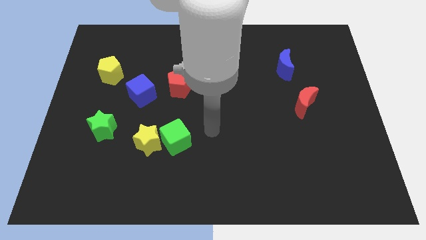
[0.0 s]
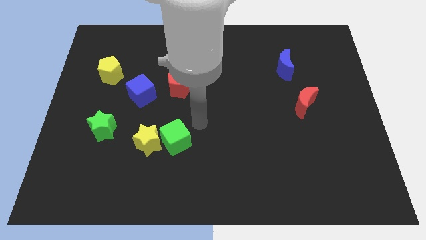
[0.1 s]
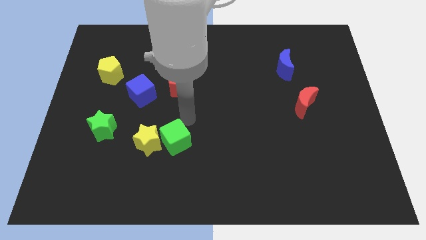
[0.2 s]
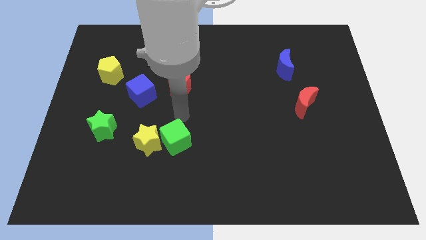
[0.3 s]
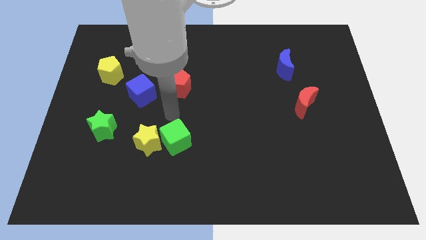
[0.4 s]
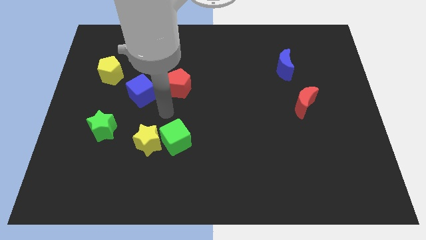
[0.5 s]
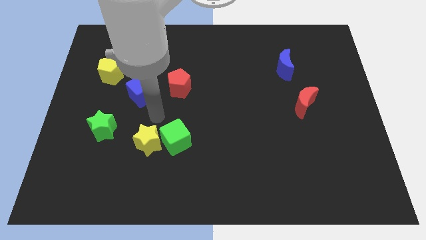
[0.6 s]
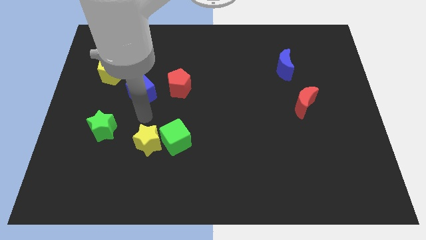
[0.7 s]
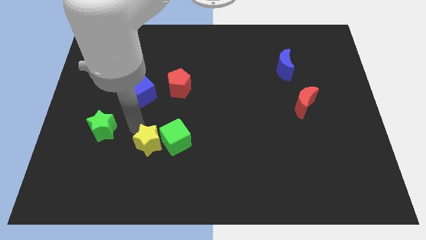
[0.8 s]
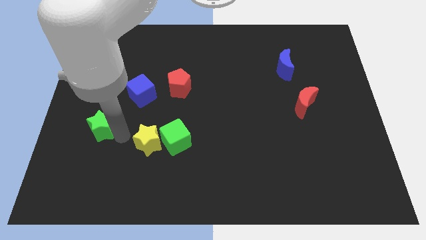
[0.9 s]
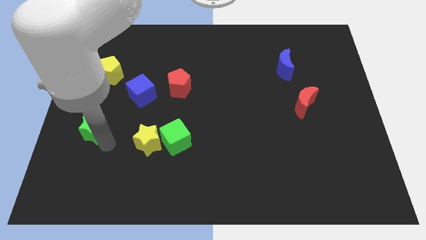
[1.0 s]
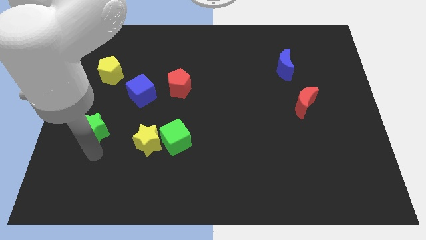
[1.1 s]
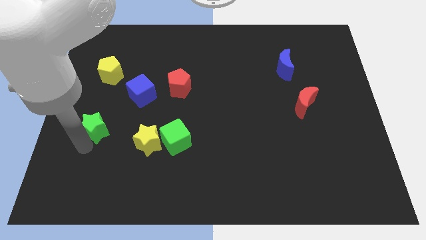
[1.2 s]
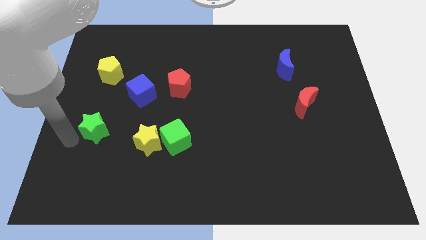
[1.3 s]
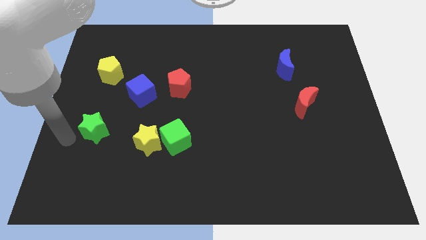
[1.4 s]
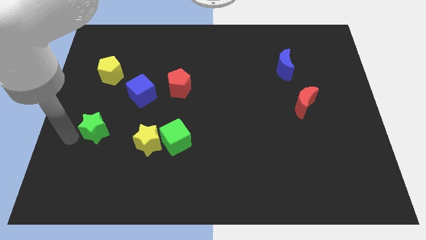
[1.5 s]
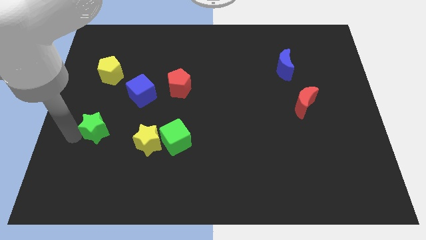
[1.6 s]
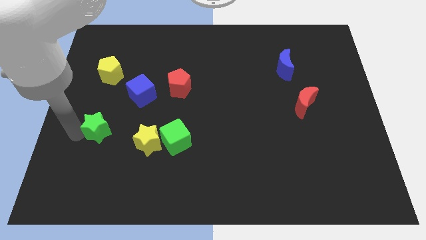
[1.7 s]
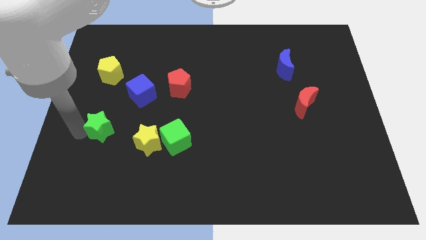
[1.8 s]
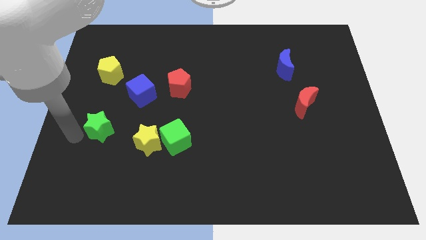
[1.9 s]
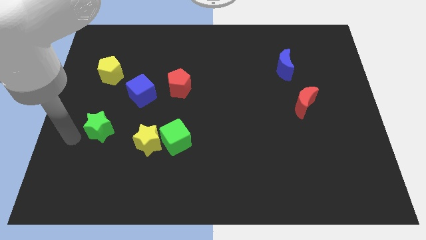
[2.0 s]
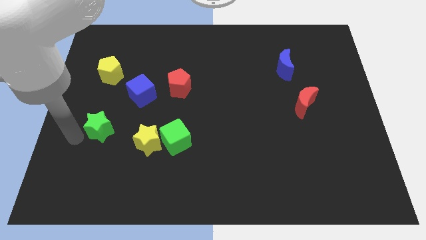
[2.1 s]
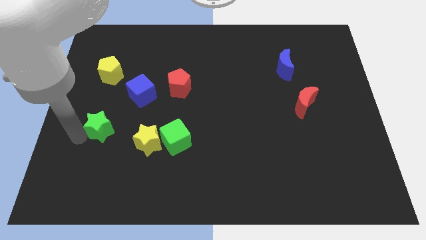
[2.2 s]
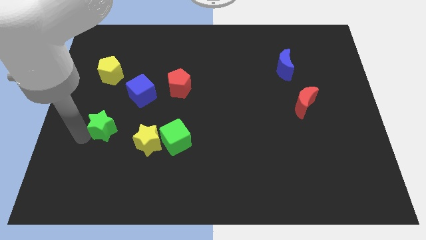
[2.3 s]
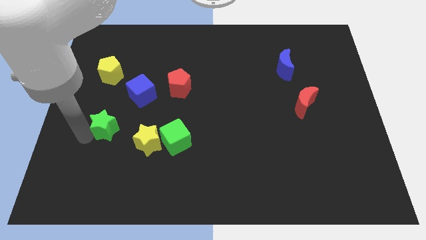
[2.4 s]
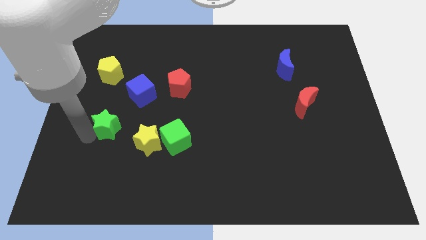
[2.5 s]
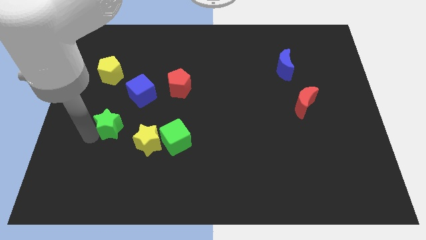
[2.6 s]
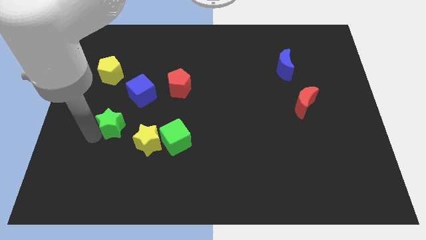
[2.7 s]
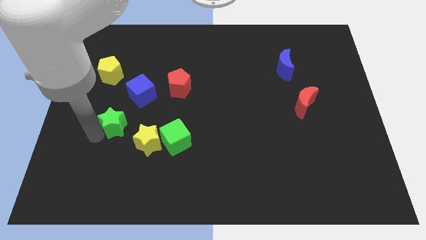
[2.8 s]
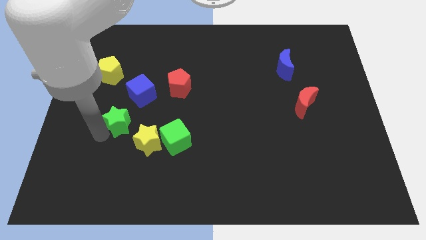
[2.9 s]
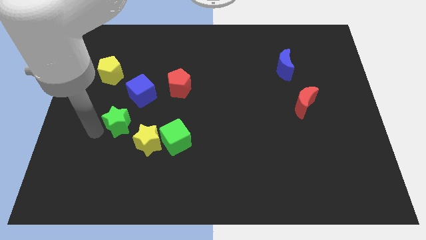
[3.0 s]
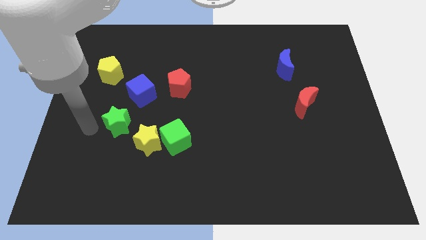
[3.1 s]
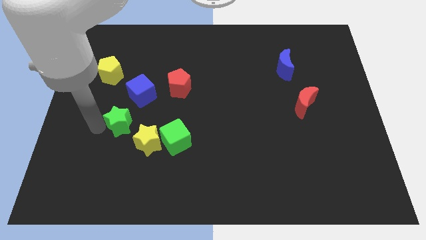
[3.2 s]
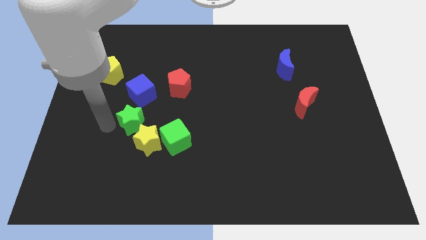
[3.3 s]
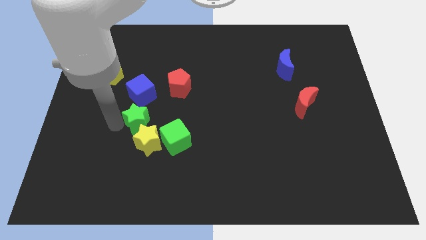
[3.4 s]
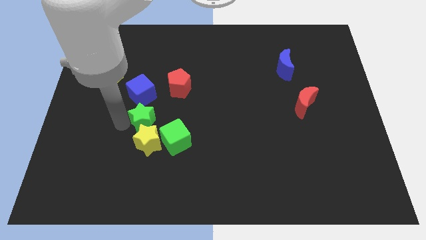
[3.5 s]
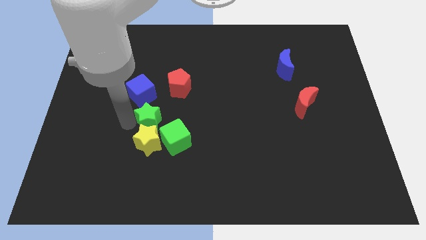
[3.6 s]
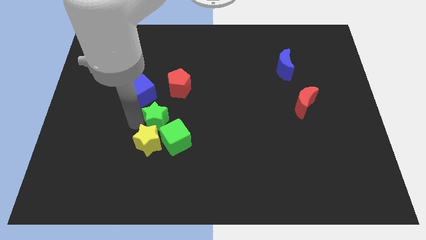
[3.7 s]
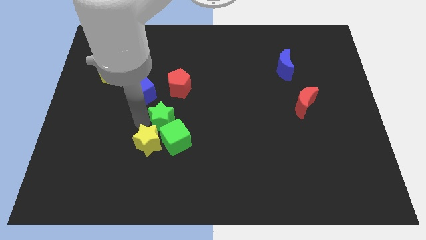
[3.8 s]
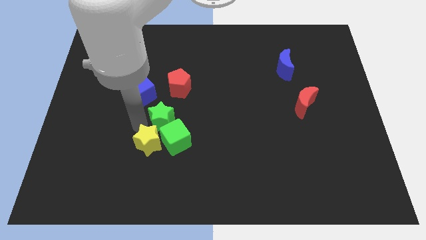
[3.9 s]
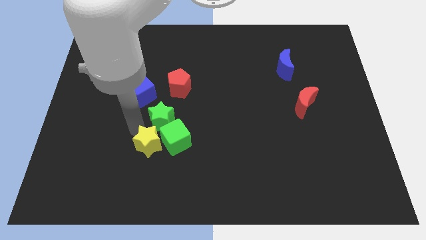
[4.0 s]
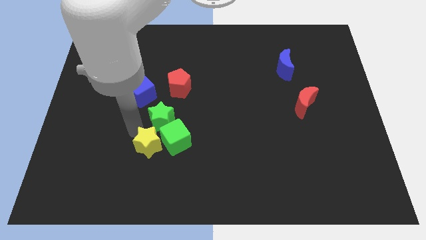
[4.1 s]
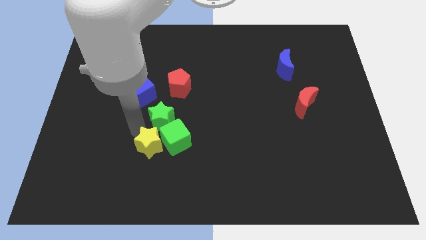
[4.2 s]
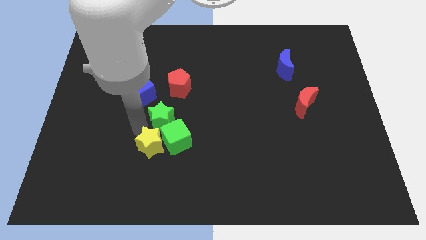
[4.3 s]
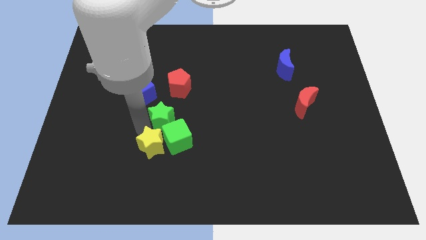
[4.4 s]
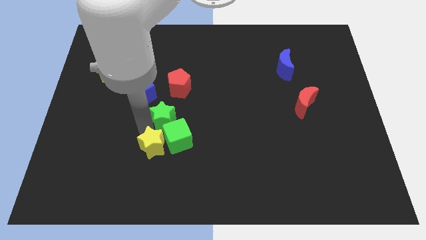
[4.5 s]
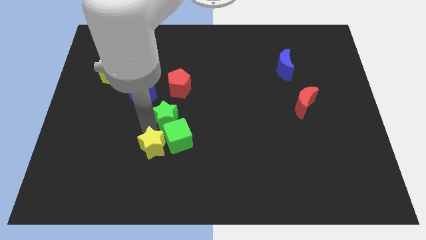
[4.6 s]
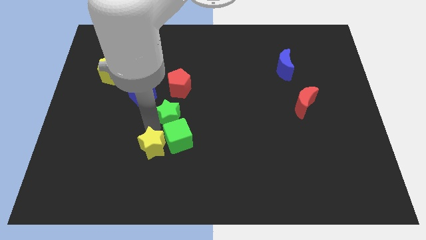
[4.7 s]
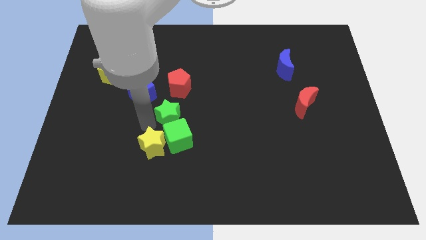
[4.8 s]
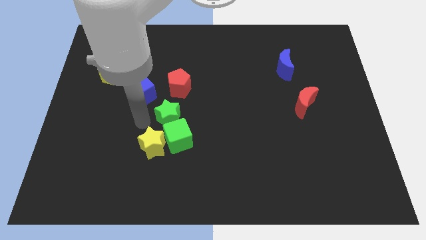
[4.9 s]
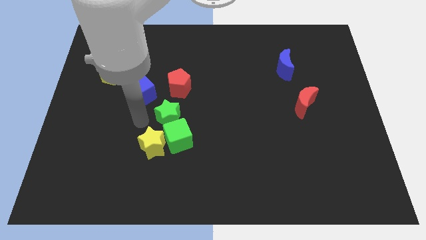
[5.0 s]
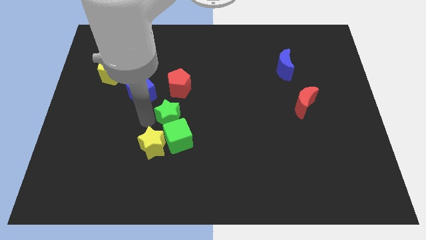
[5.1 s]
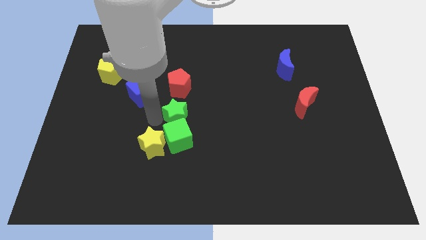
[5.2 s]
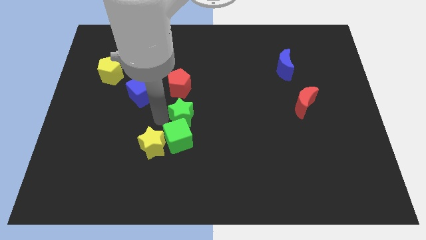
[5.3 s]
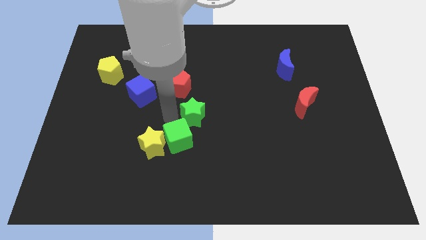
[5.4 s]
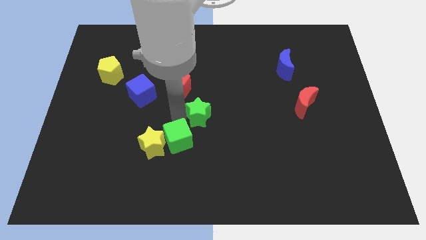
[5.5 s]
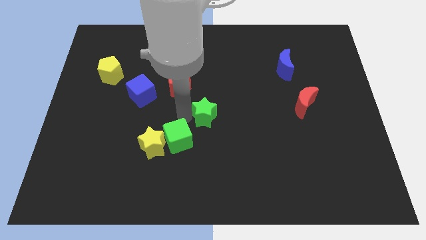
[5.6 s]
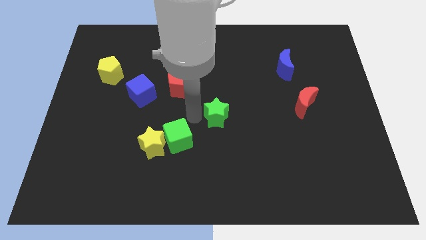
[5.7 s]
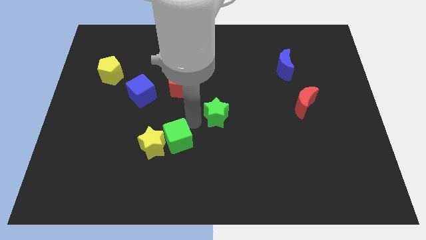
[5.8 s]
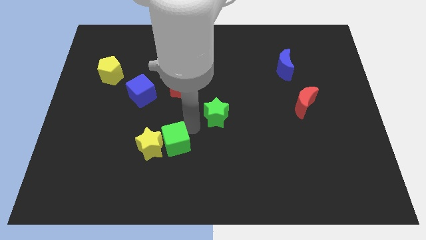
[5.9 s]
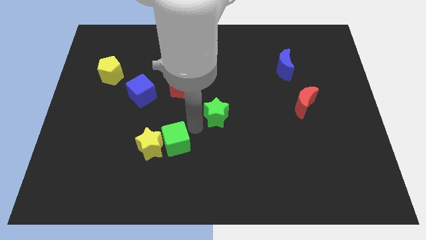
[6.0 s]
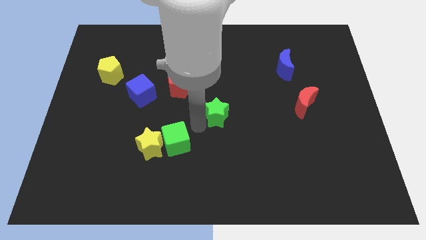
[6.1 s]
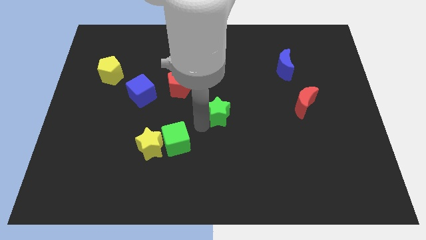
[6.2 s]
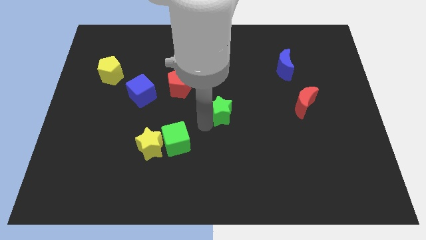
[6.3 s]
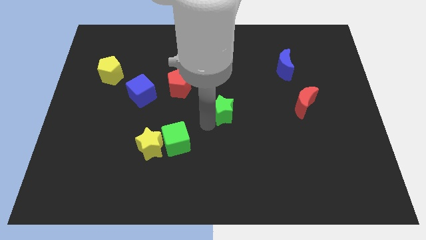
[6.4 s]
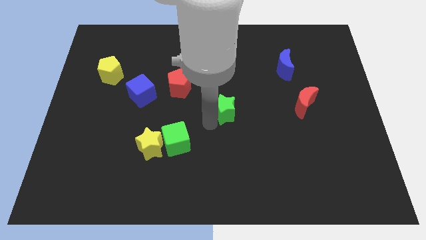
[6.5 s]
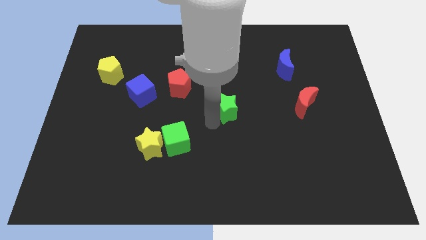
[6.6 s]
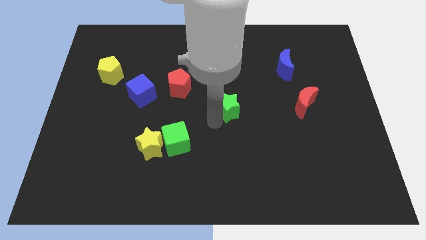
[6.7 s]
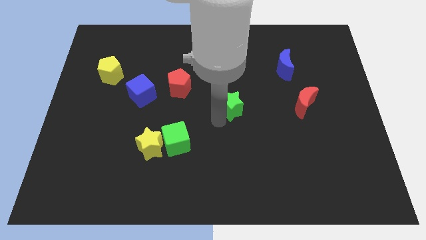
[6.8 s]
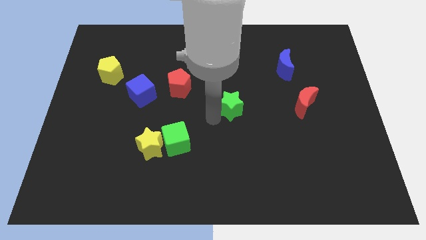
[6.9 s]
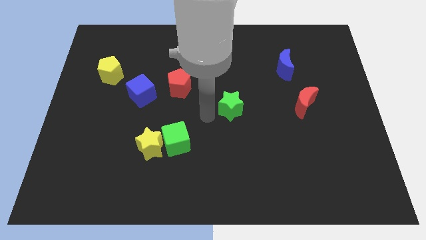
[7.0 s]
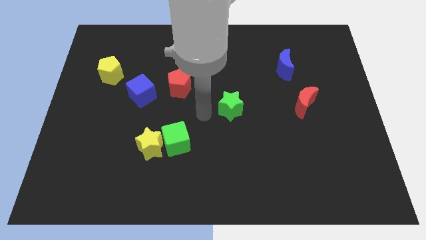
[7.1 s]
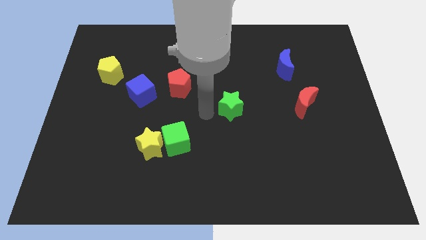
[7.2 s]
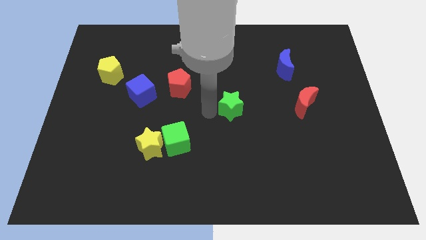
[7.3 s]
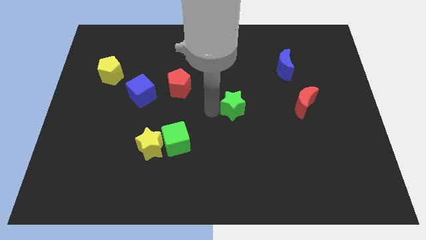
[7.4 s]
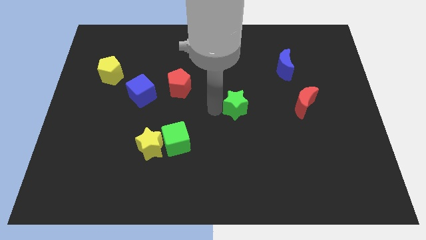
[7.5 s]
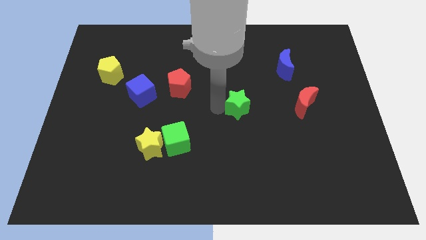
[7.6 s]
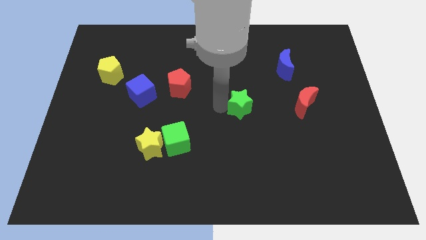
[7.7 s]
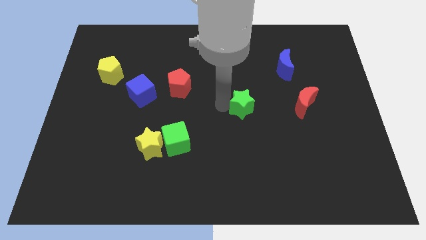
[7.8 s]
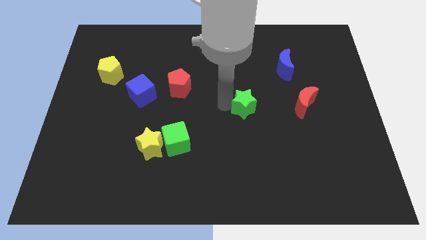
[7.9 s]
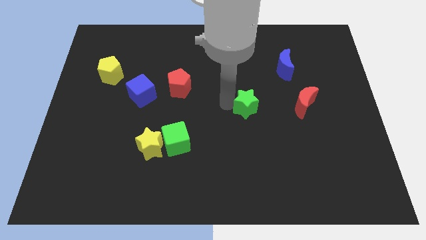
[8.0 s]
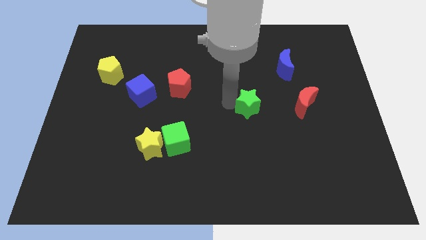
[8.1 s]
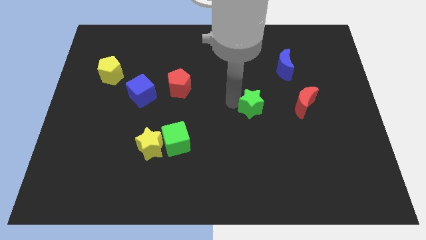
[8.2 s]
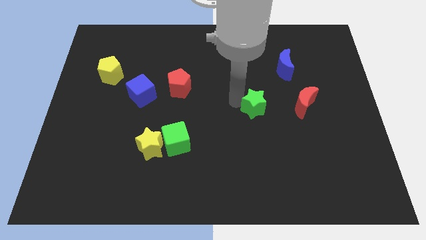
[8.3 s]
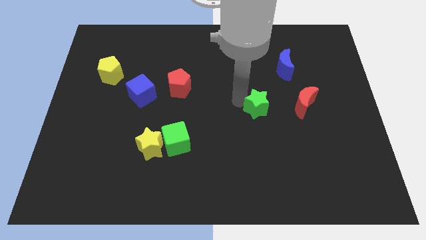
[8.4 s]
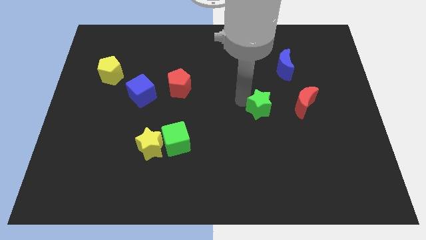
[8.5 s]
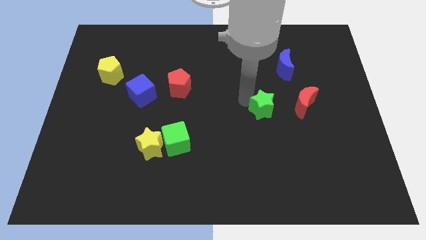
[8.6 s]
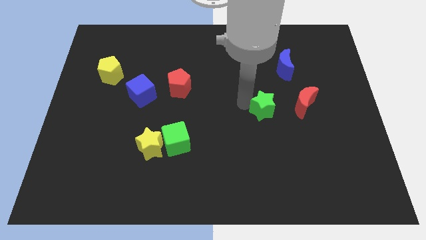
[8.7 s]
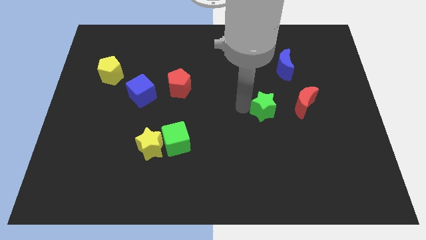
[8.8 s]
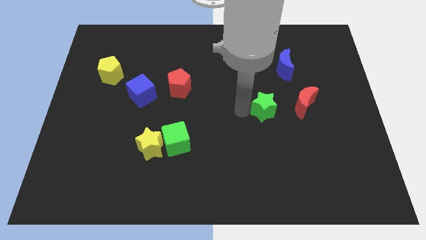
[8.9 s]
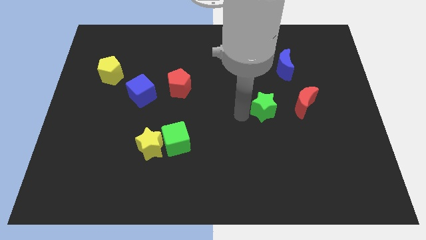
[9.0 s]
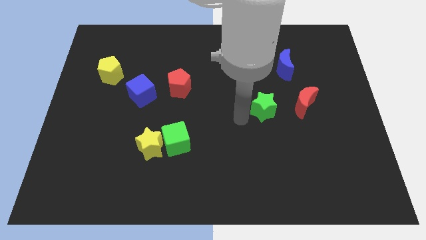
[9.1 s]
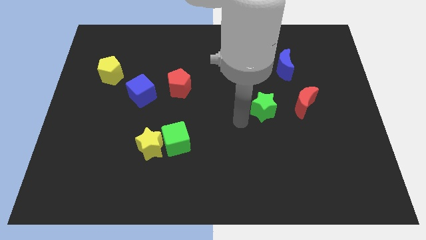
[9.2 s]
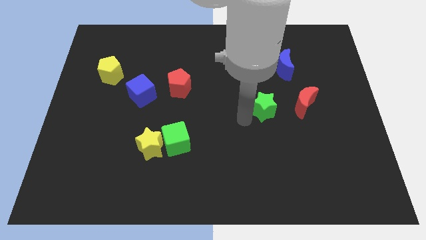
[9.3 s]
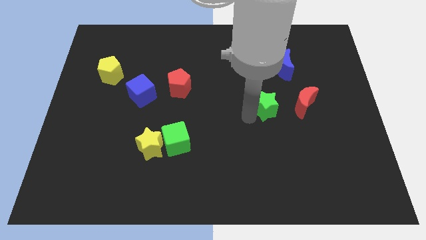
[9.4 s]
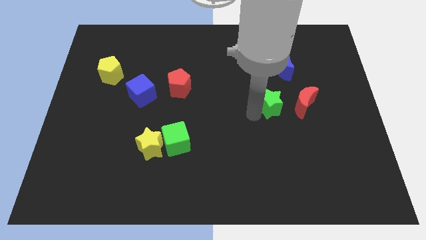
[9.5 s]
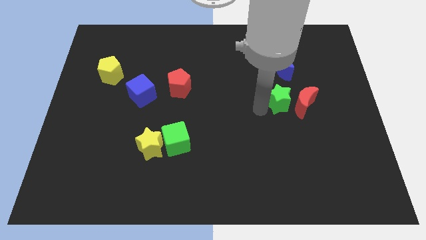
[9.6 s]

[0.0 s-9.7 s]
move the green star close to the red moon
